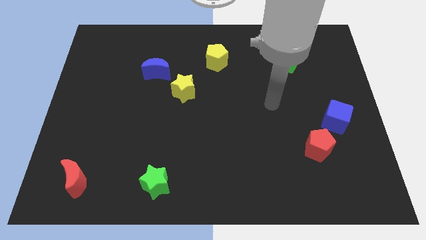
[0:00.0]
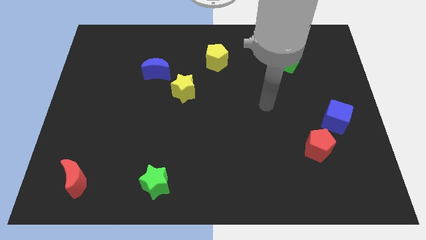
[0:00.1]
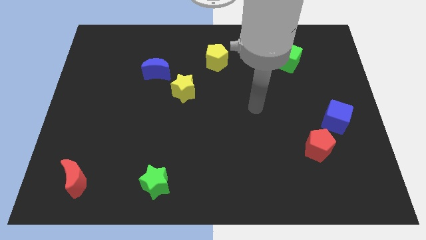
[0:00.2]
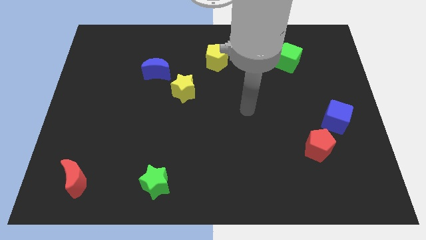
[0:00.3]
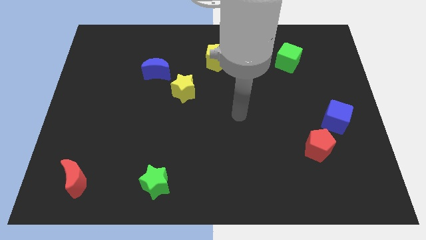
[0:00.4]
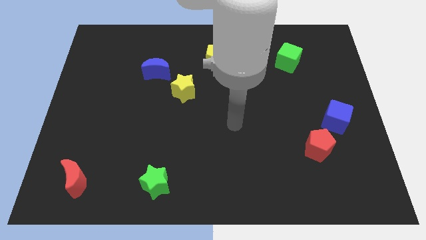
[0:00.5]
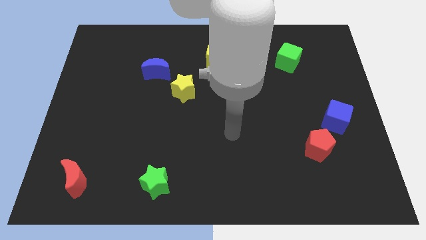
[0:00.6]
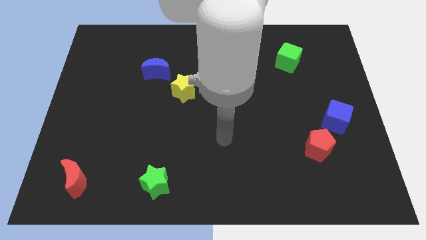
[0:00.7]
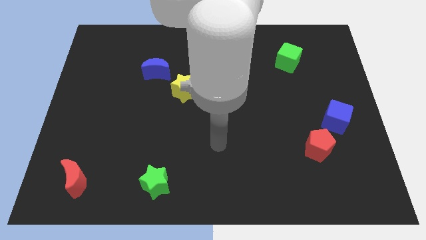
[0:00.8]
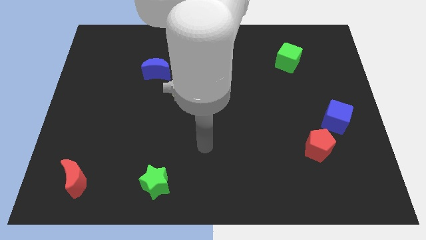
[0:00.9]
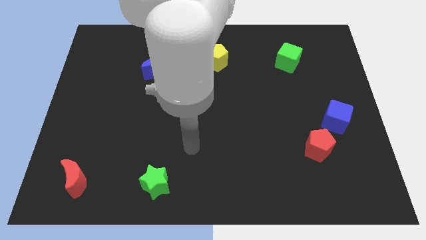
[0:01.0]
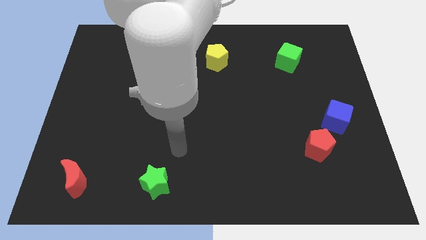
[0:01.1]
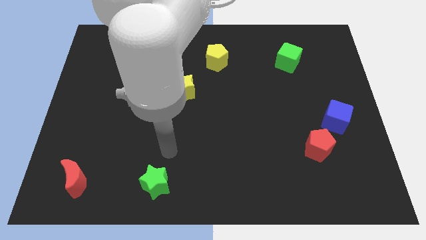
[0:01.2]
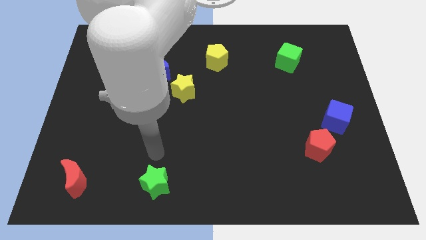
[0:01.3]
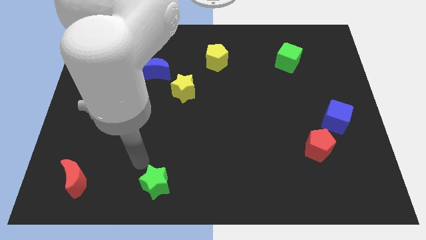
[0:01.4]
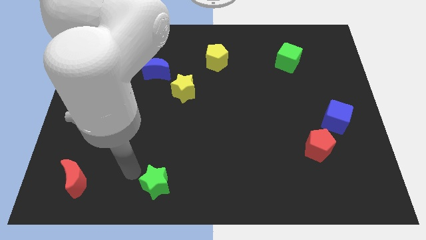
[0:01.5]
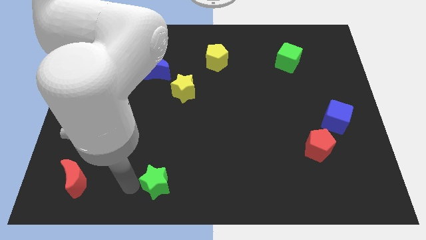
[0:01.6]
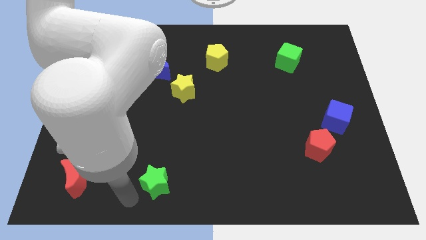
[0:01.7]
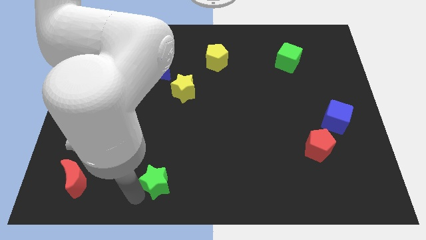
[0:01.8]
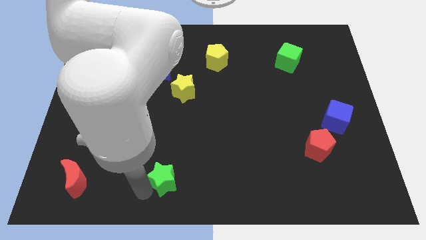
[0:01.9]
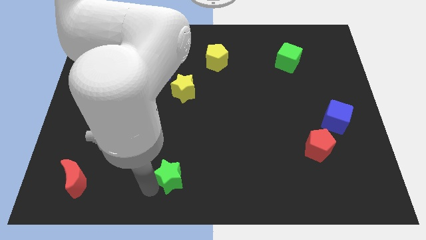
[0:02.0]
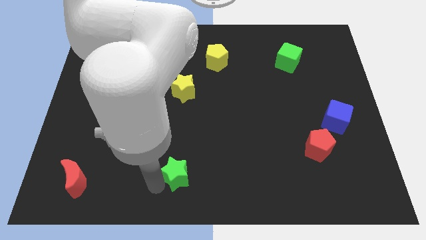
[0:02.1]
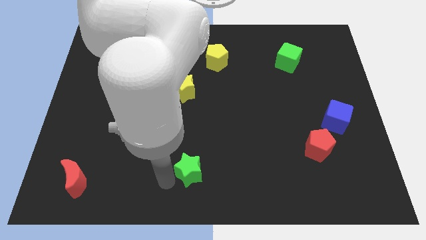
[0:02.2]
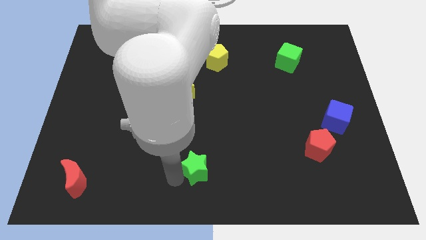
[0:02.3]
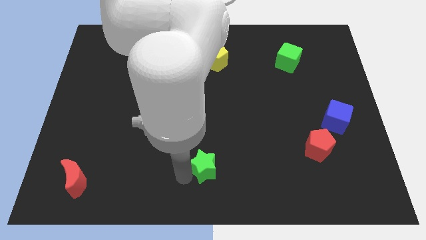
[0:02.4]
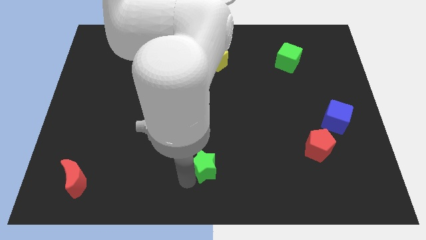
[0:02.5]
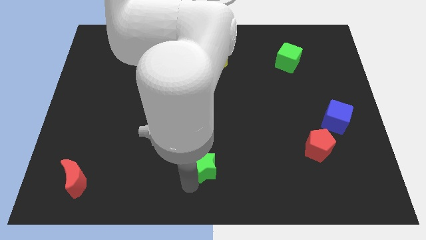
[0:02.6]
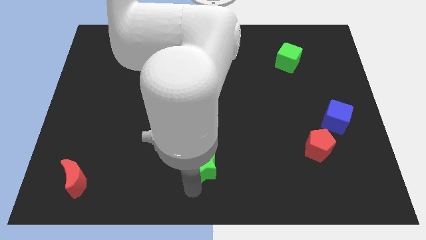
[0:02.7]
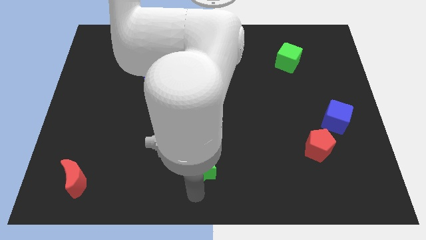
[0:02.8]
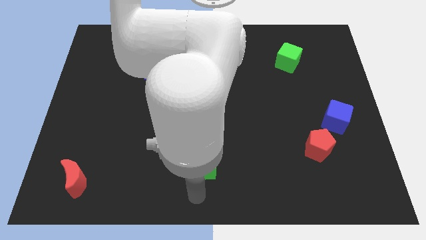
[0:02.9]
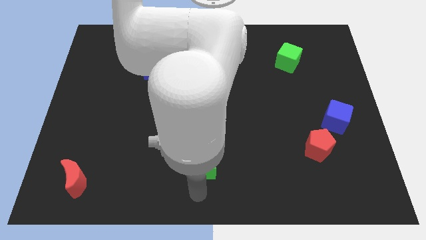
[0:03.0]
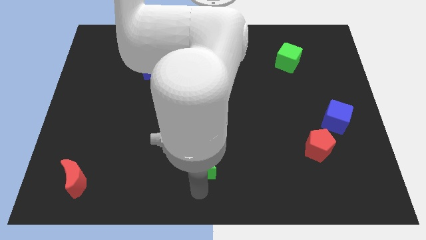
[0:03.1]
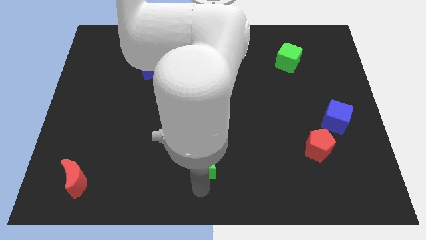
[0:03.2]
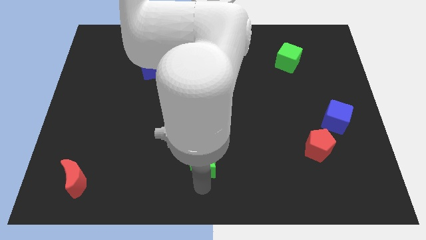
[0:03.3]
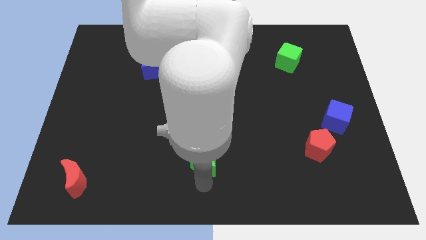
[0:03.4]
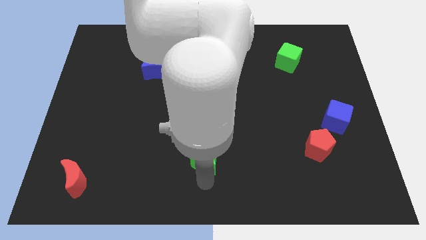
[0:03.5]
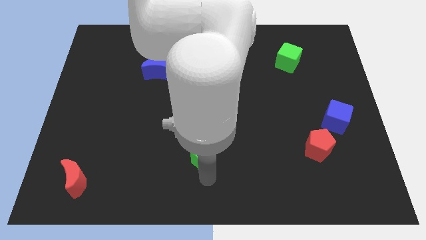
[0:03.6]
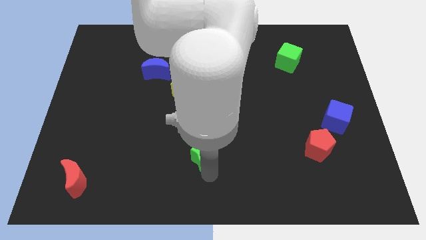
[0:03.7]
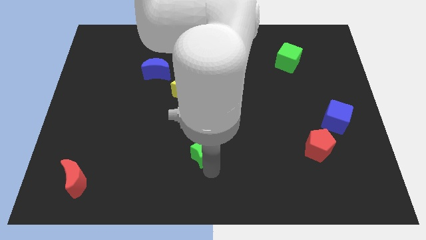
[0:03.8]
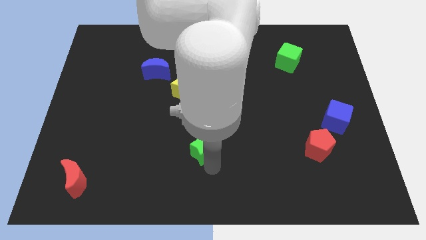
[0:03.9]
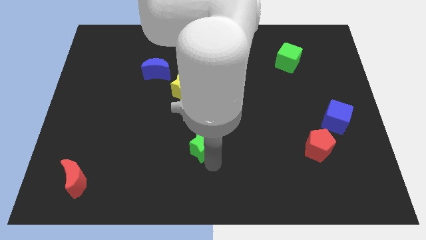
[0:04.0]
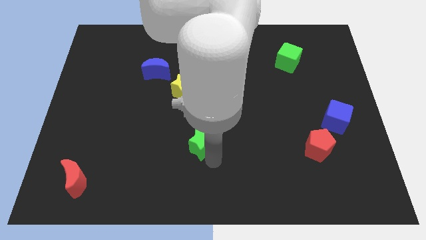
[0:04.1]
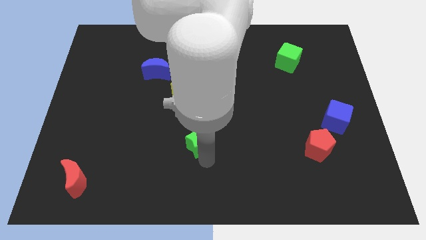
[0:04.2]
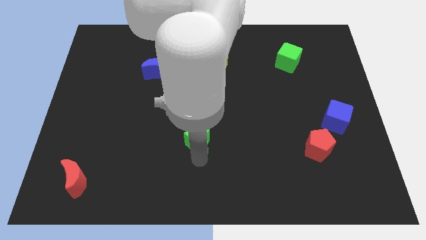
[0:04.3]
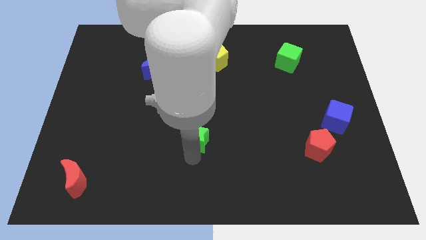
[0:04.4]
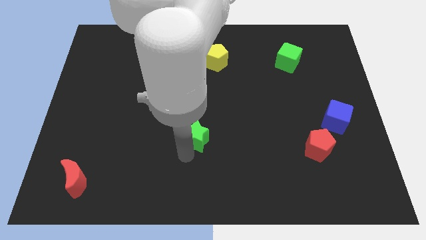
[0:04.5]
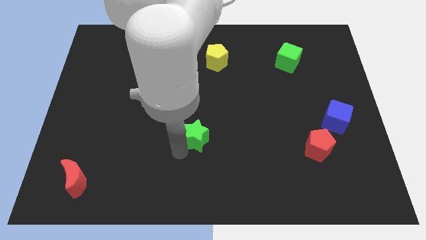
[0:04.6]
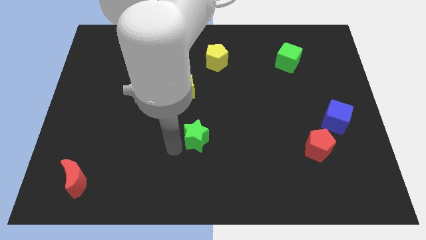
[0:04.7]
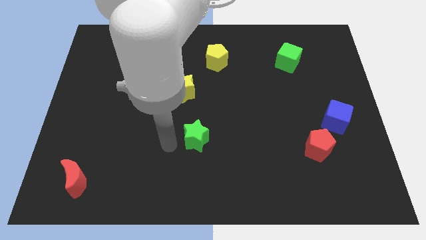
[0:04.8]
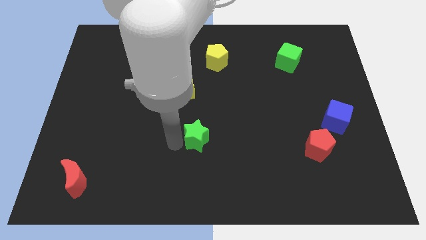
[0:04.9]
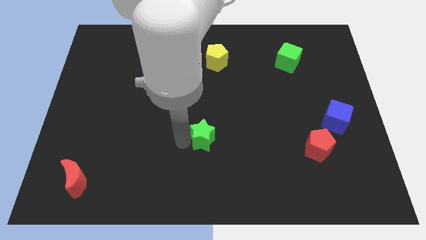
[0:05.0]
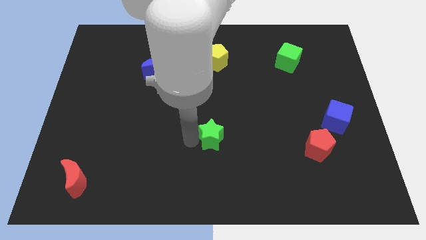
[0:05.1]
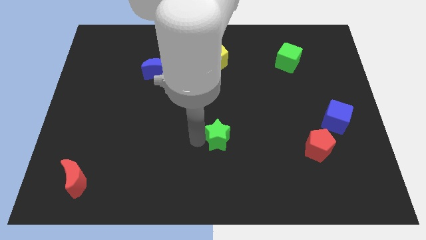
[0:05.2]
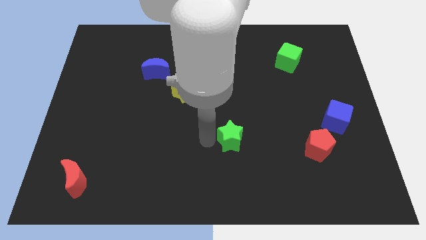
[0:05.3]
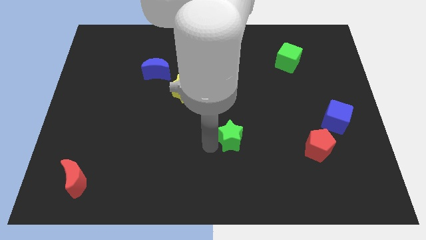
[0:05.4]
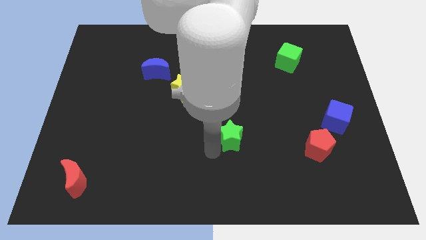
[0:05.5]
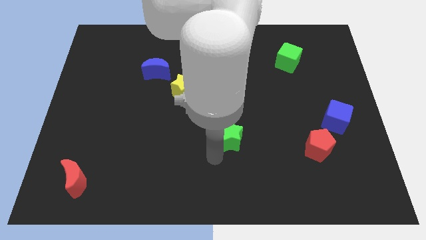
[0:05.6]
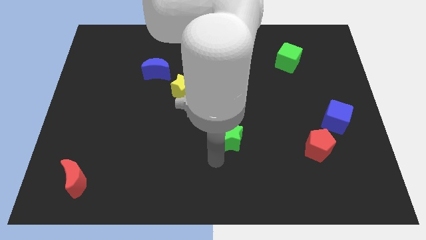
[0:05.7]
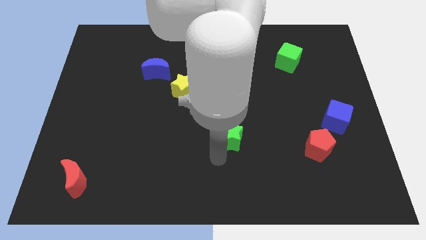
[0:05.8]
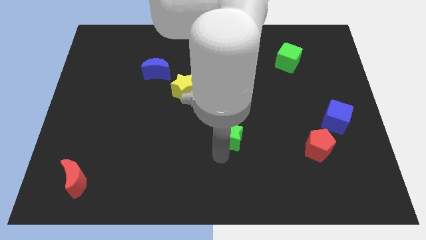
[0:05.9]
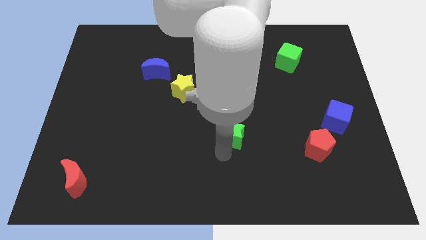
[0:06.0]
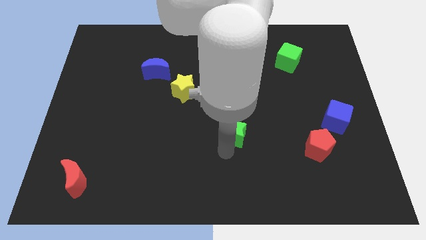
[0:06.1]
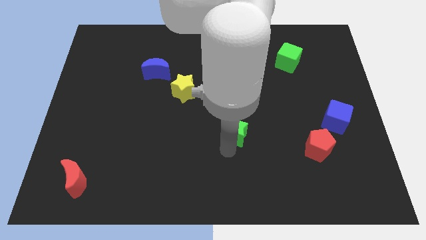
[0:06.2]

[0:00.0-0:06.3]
move the green star up and then to the right

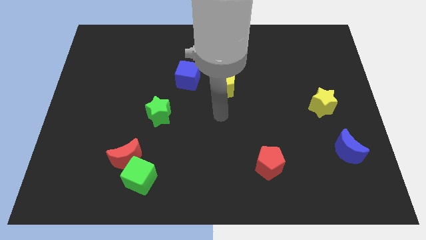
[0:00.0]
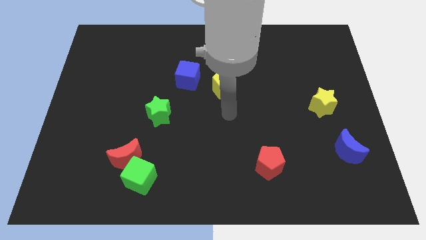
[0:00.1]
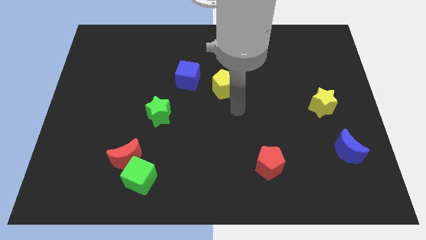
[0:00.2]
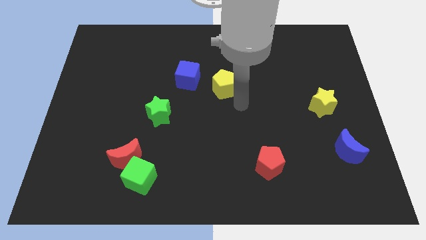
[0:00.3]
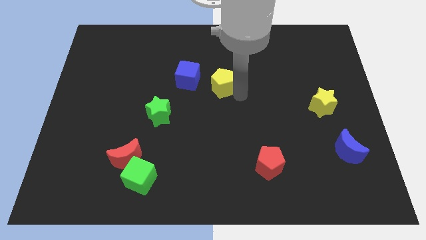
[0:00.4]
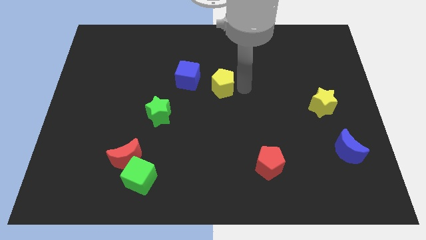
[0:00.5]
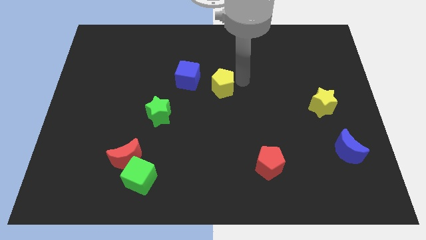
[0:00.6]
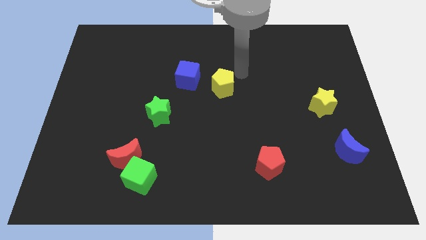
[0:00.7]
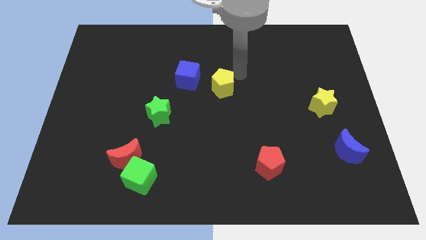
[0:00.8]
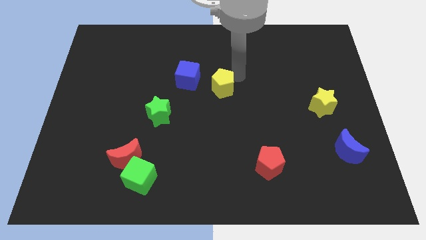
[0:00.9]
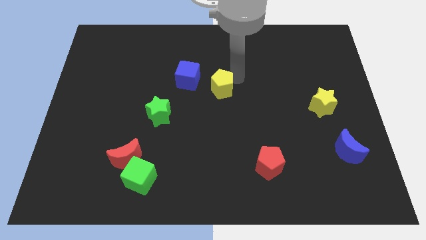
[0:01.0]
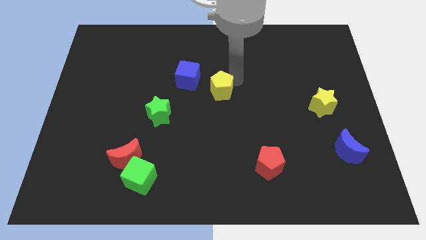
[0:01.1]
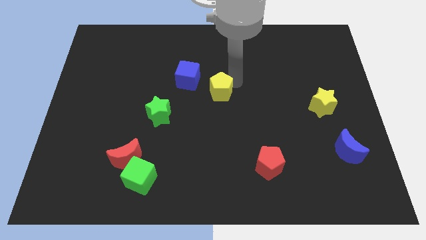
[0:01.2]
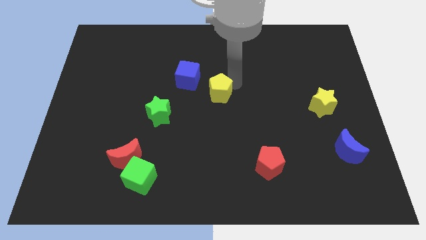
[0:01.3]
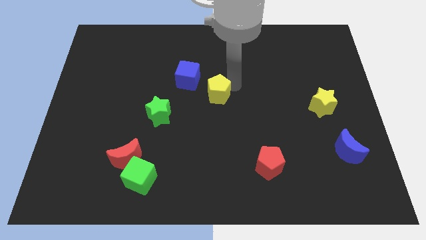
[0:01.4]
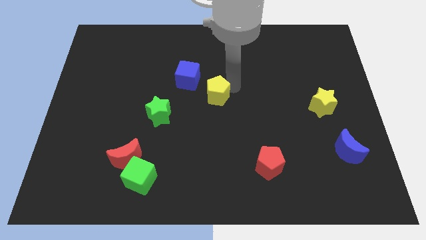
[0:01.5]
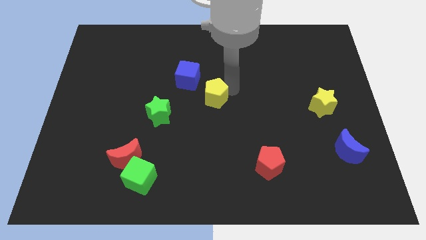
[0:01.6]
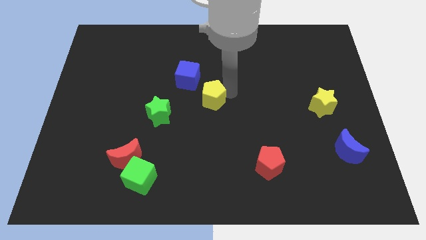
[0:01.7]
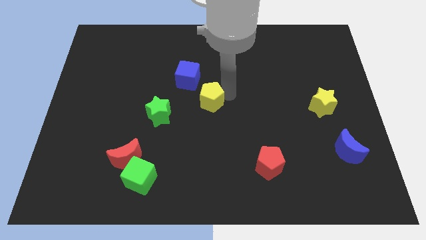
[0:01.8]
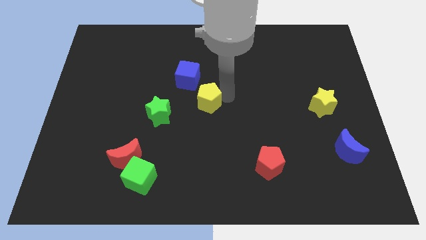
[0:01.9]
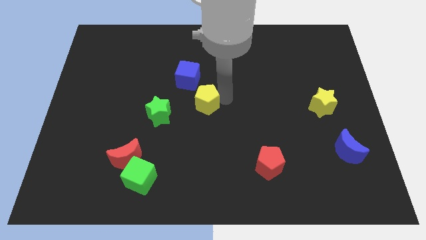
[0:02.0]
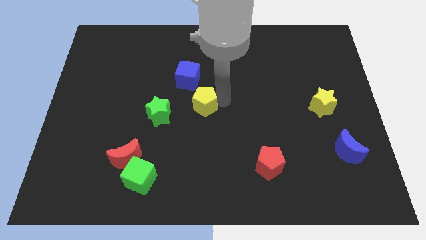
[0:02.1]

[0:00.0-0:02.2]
push the yellow pentagon down and then left a bit

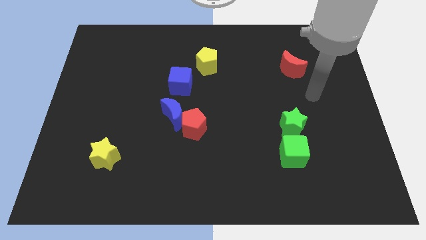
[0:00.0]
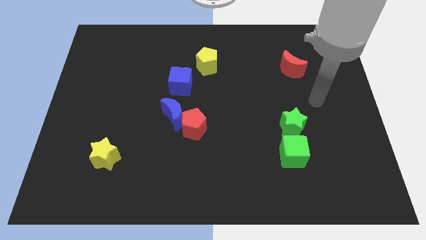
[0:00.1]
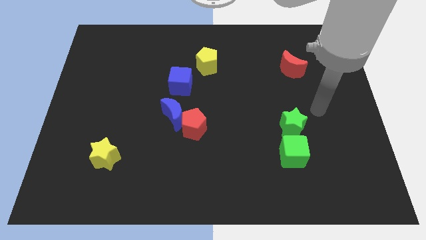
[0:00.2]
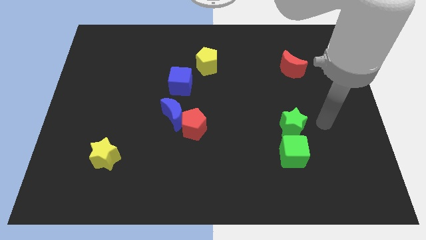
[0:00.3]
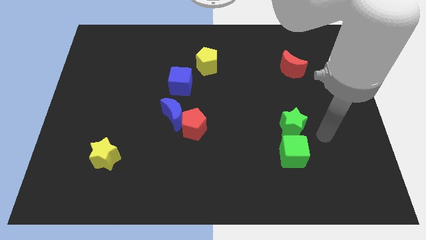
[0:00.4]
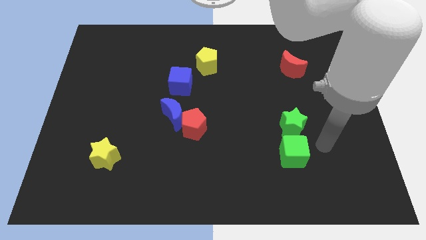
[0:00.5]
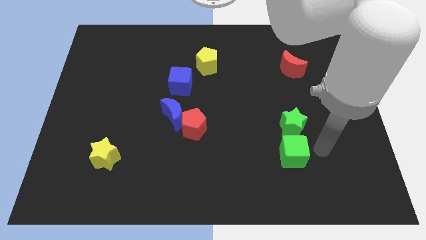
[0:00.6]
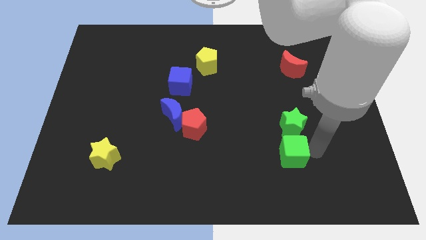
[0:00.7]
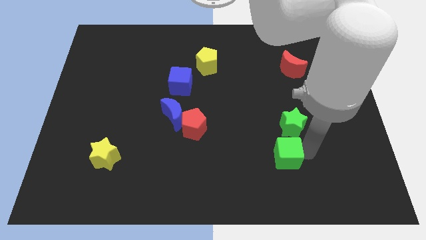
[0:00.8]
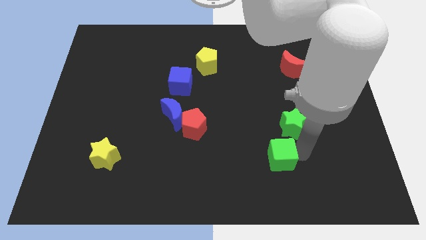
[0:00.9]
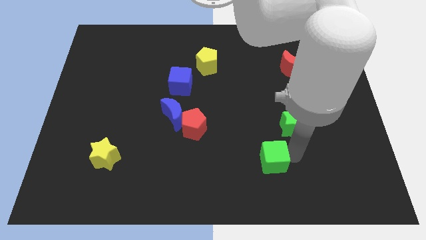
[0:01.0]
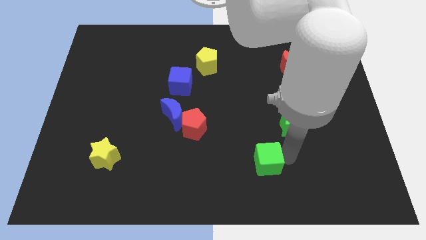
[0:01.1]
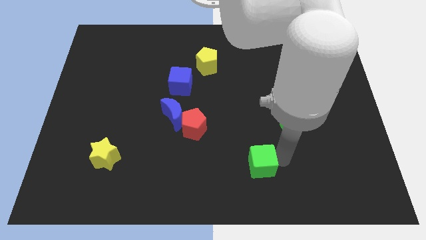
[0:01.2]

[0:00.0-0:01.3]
push the green cube to the left a bit
